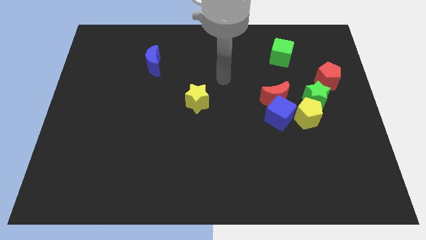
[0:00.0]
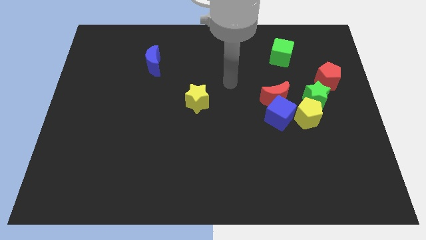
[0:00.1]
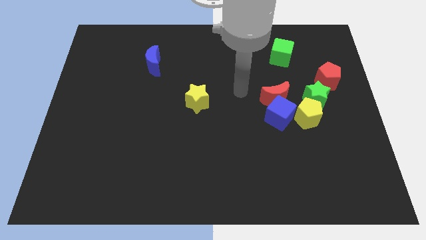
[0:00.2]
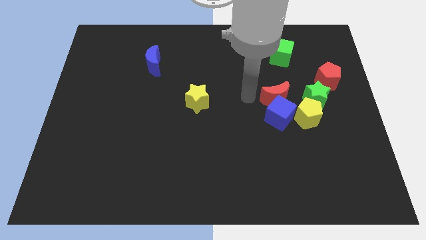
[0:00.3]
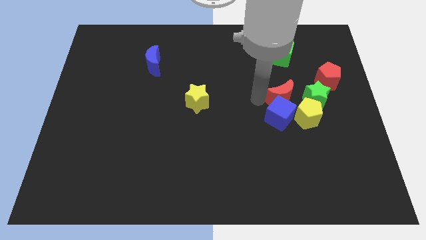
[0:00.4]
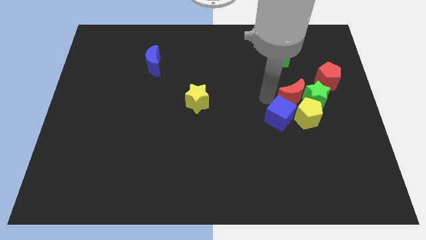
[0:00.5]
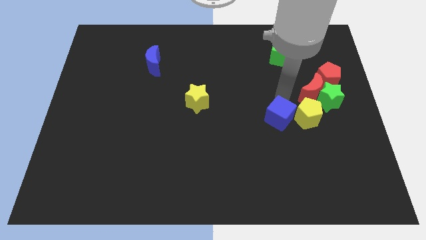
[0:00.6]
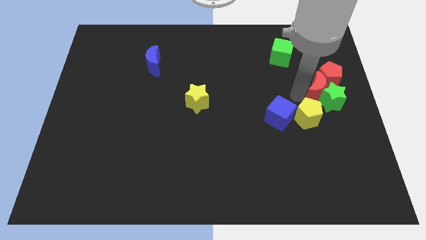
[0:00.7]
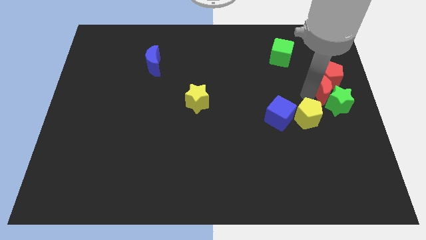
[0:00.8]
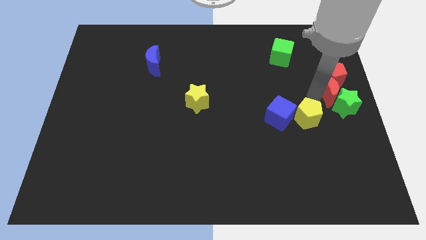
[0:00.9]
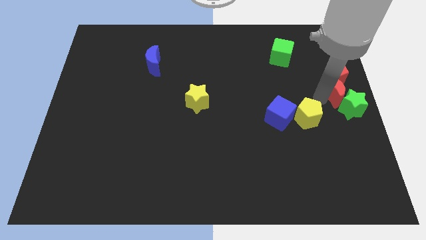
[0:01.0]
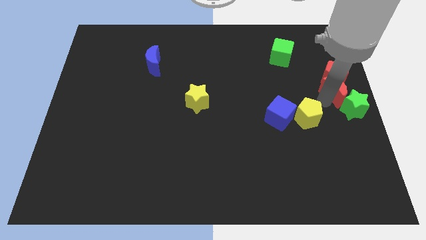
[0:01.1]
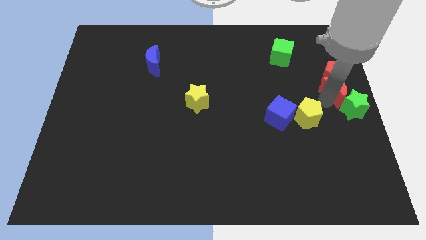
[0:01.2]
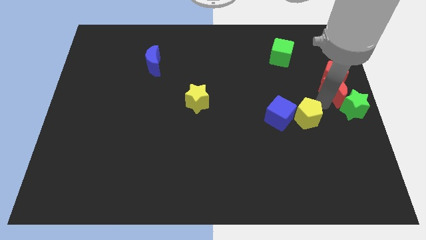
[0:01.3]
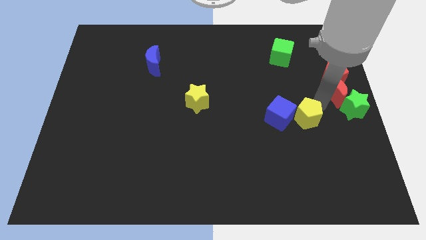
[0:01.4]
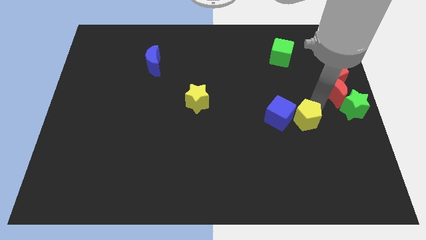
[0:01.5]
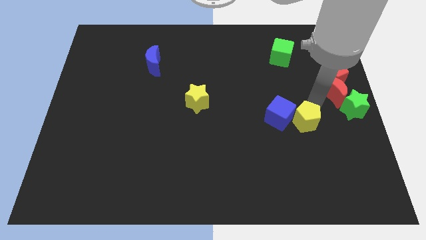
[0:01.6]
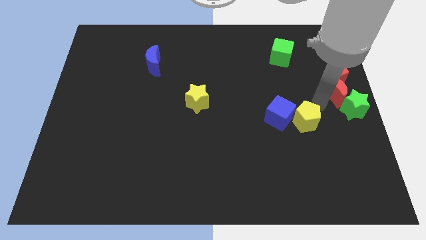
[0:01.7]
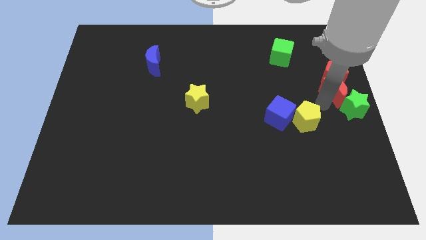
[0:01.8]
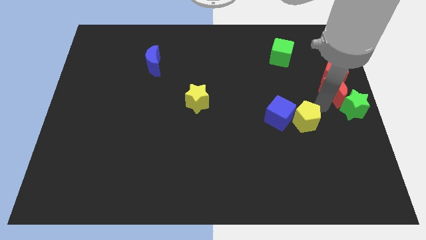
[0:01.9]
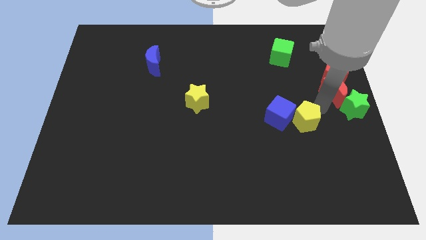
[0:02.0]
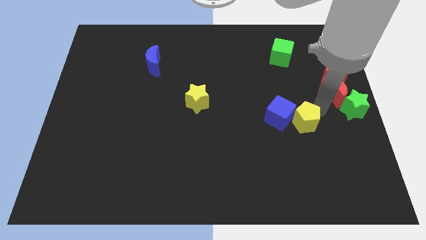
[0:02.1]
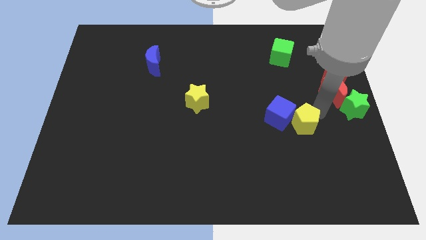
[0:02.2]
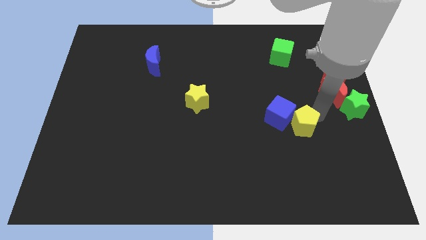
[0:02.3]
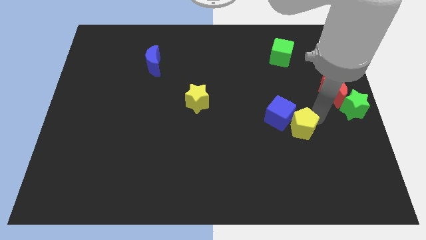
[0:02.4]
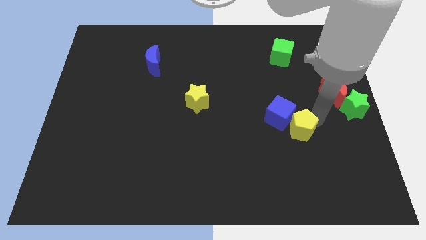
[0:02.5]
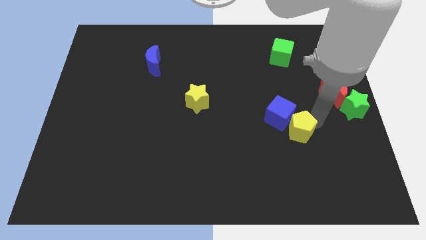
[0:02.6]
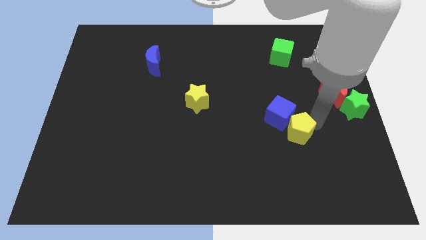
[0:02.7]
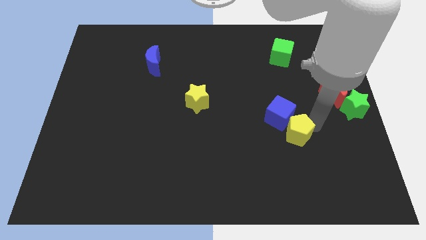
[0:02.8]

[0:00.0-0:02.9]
separate the yellow pentagon from the clump

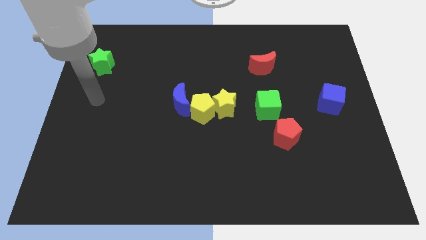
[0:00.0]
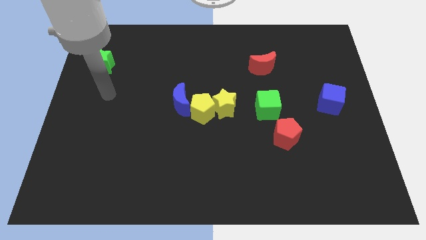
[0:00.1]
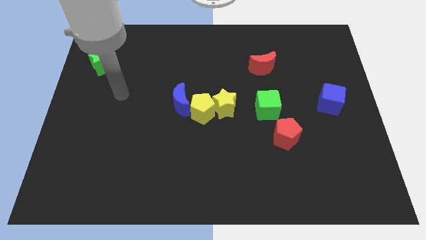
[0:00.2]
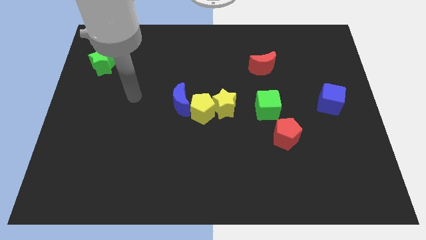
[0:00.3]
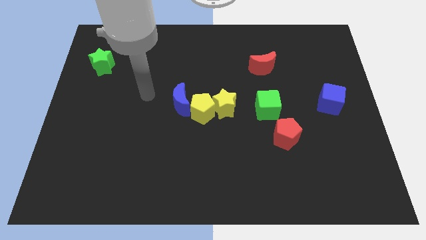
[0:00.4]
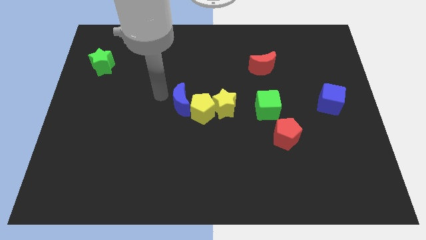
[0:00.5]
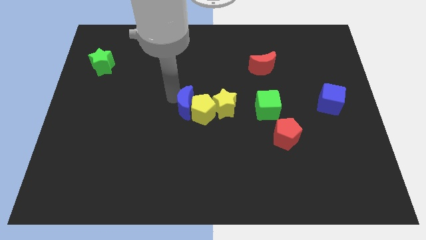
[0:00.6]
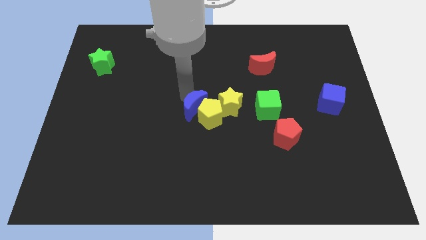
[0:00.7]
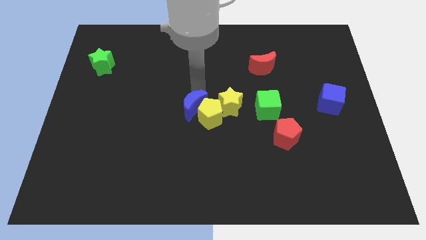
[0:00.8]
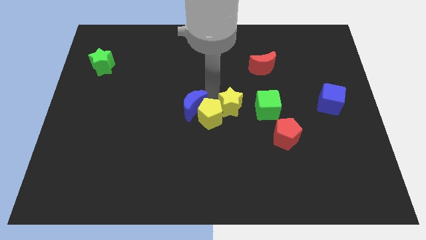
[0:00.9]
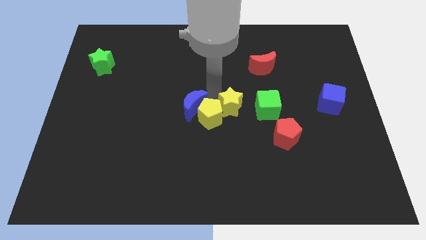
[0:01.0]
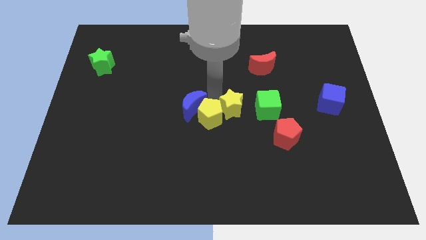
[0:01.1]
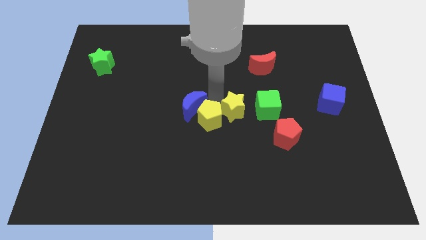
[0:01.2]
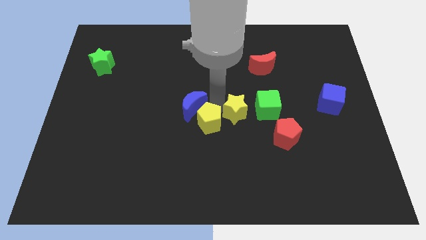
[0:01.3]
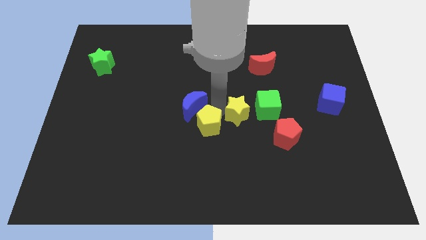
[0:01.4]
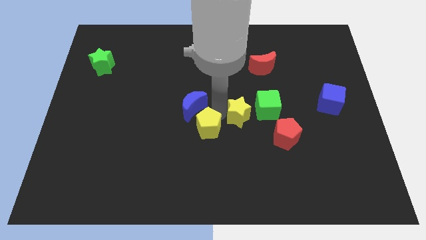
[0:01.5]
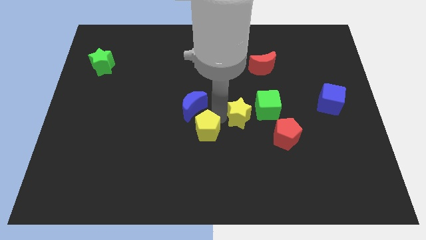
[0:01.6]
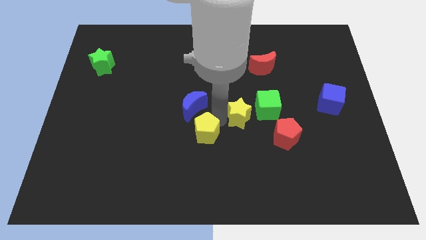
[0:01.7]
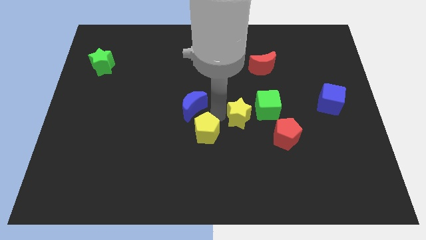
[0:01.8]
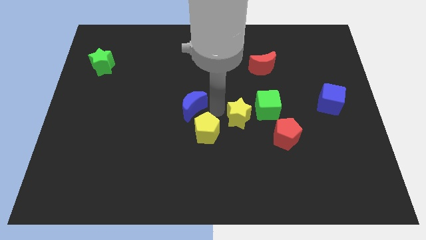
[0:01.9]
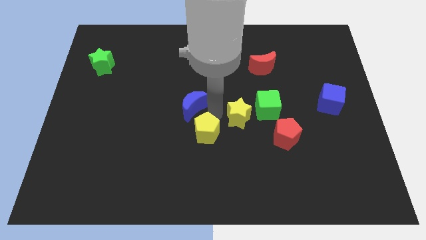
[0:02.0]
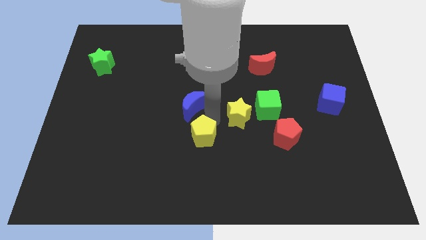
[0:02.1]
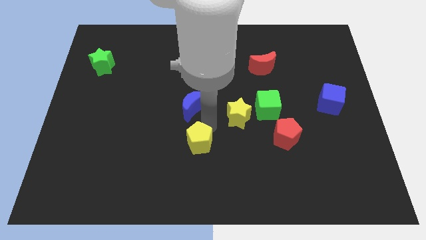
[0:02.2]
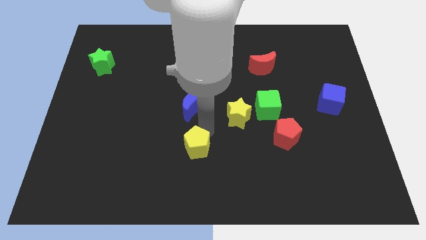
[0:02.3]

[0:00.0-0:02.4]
pull the yellow pentagon apart from the yellow star and blue moon

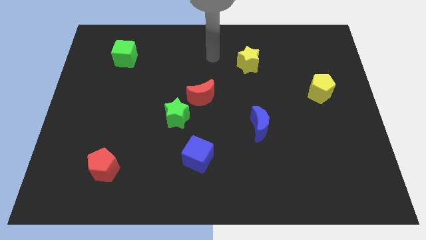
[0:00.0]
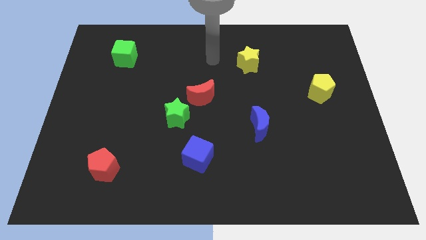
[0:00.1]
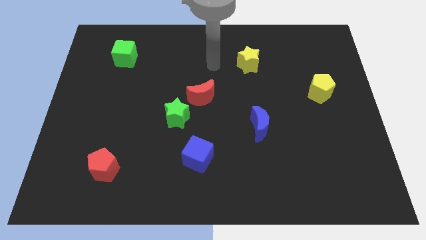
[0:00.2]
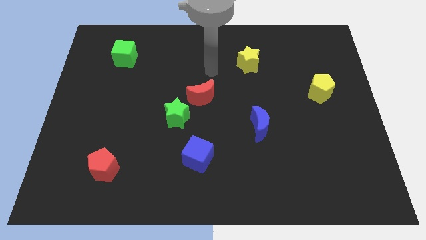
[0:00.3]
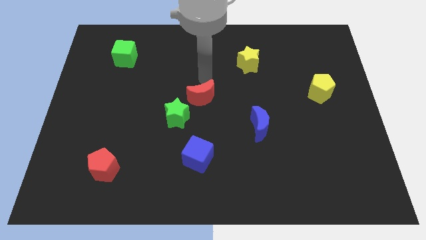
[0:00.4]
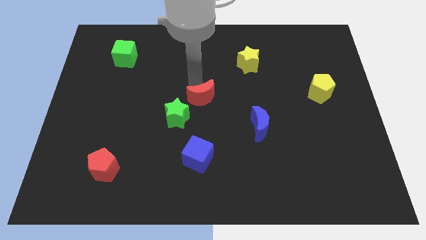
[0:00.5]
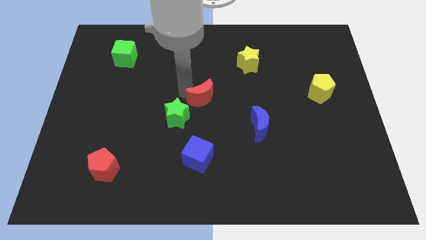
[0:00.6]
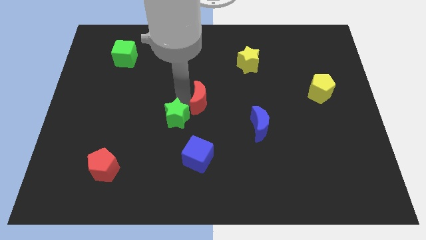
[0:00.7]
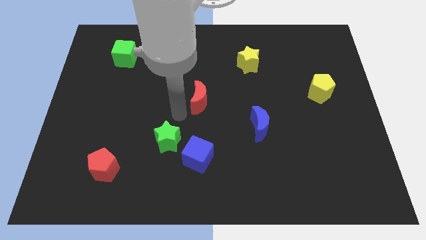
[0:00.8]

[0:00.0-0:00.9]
pull the red moon apart from the green star

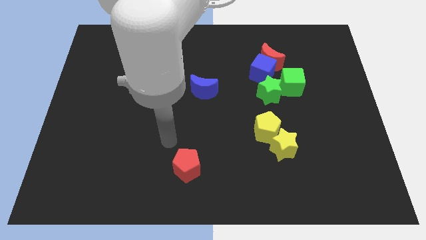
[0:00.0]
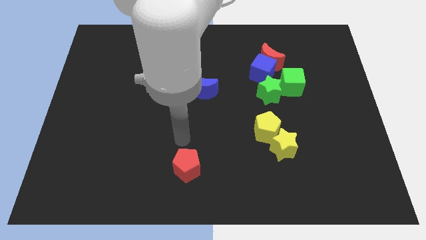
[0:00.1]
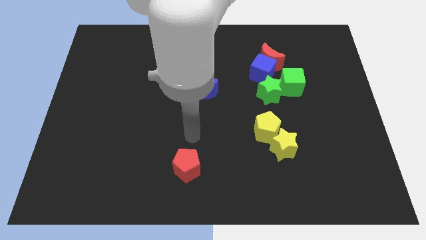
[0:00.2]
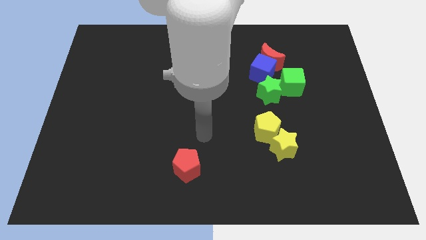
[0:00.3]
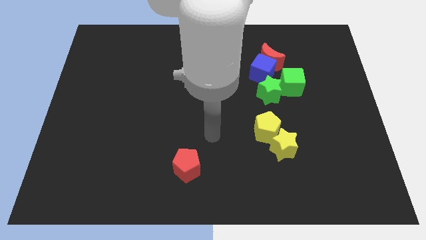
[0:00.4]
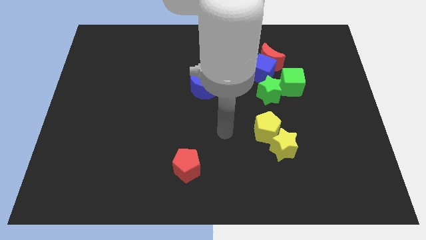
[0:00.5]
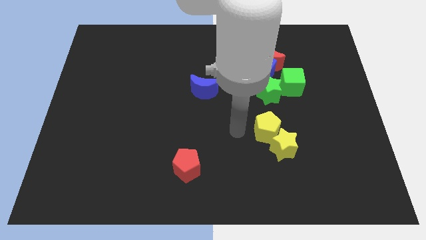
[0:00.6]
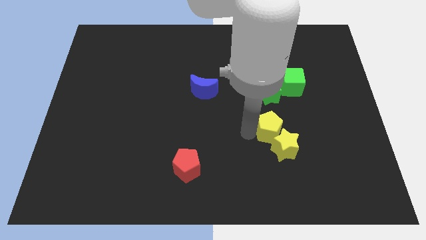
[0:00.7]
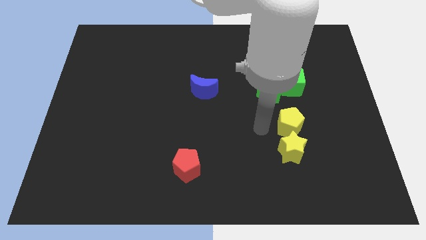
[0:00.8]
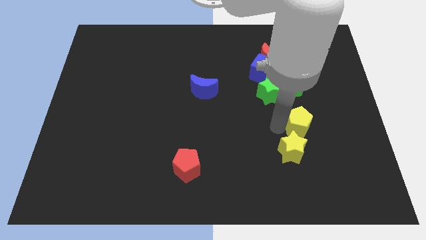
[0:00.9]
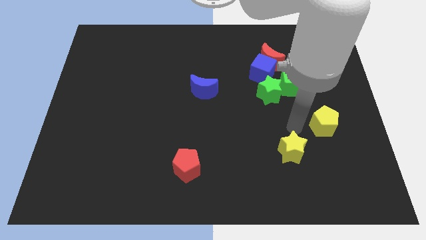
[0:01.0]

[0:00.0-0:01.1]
separate the yellow star from the yellow pentagon

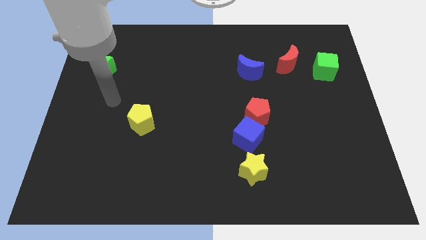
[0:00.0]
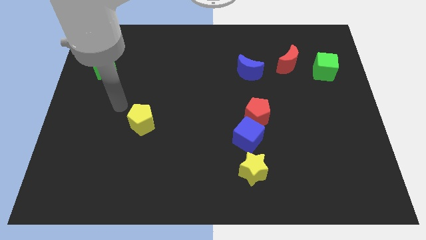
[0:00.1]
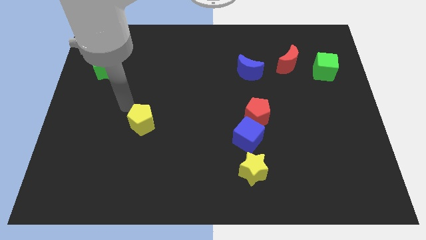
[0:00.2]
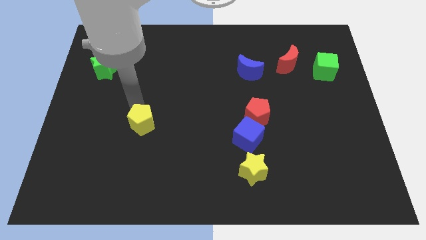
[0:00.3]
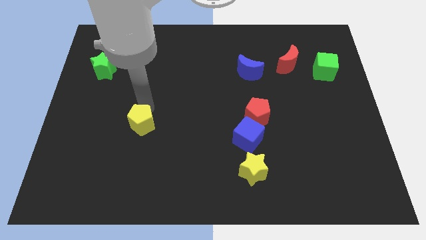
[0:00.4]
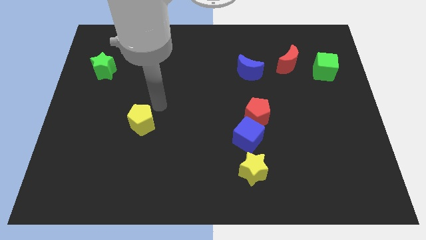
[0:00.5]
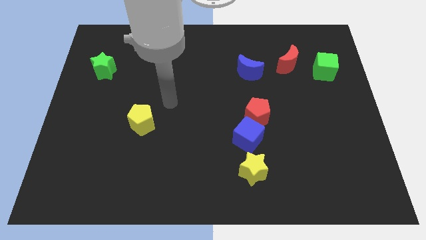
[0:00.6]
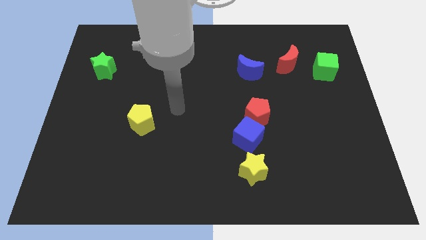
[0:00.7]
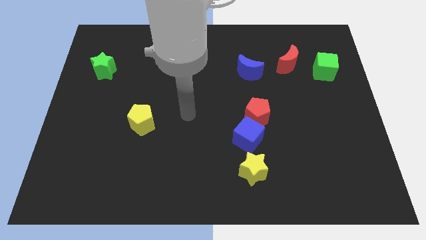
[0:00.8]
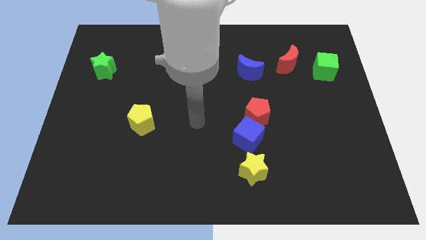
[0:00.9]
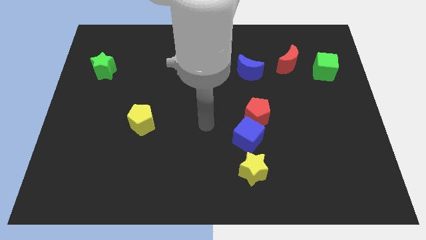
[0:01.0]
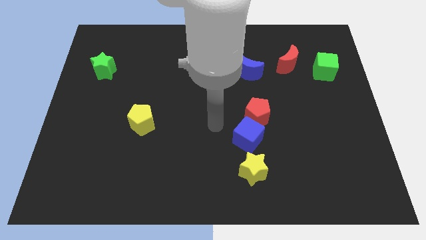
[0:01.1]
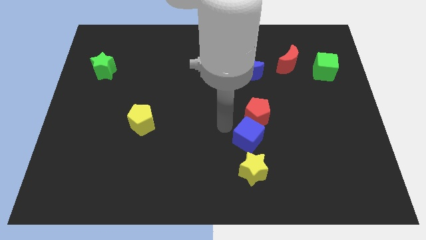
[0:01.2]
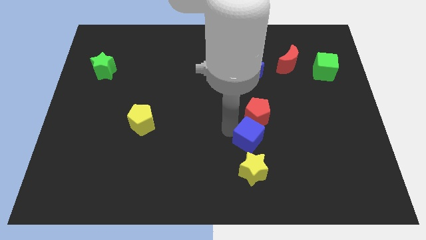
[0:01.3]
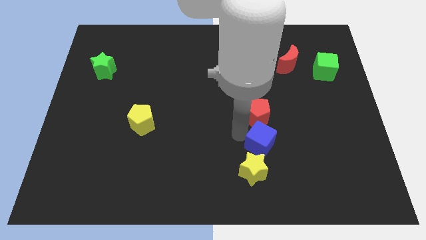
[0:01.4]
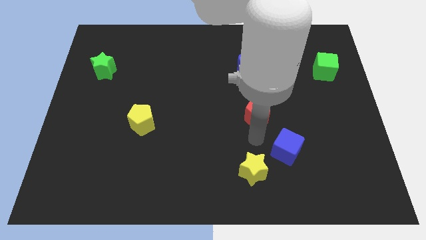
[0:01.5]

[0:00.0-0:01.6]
separate the red pentagon from the blue cube

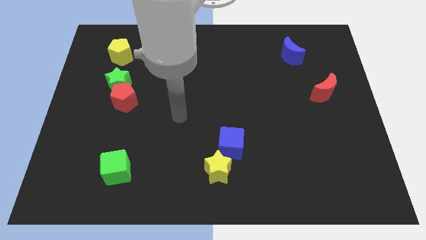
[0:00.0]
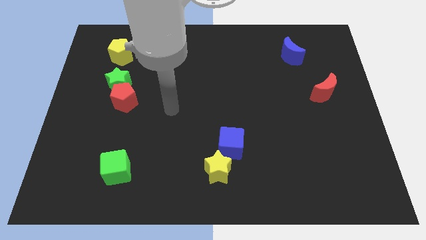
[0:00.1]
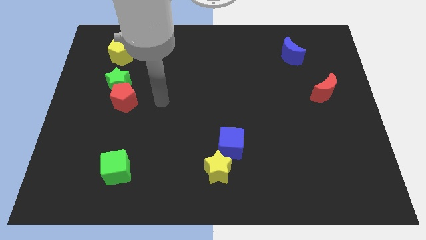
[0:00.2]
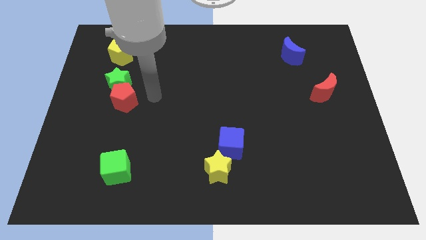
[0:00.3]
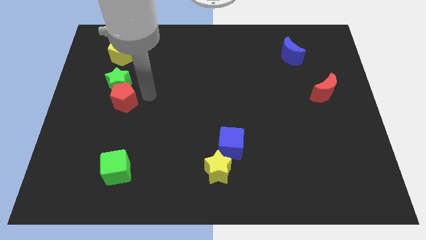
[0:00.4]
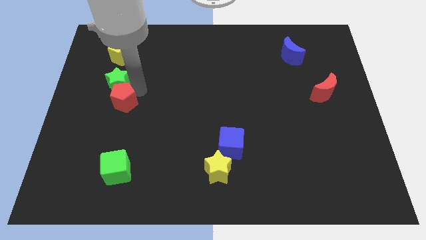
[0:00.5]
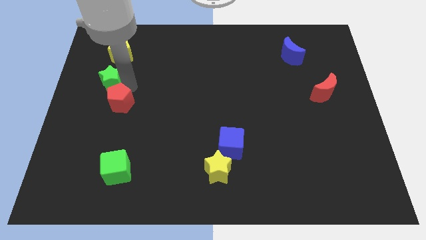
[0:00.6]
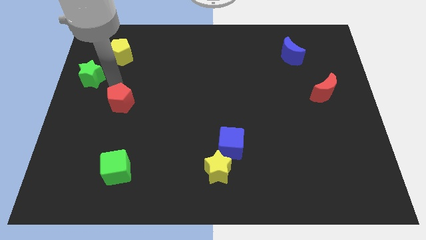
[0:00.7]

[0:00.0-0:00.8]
pull the red pentagon apart from the green star
